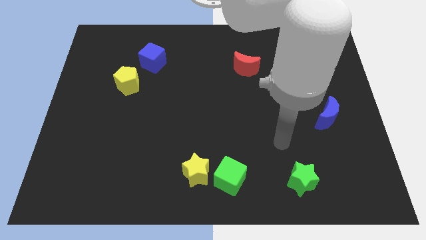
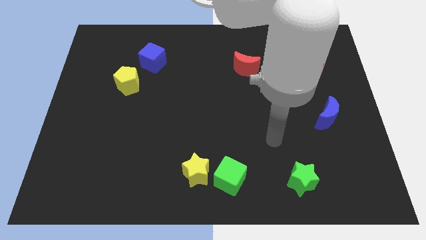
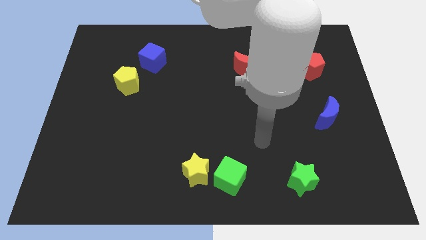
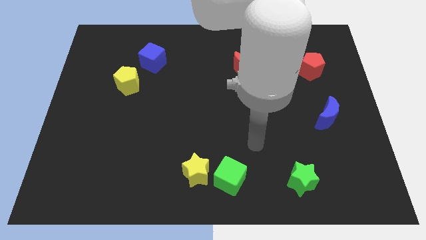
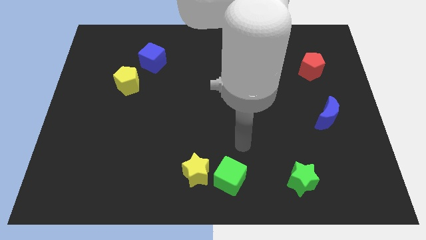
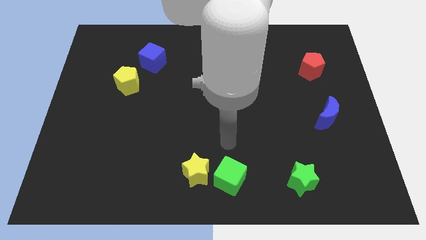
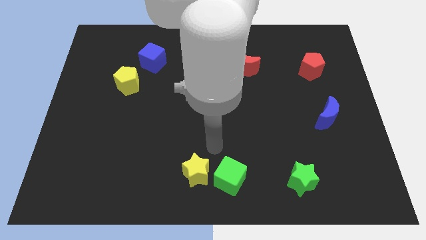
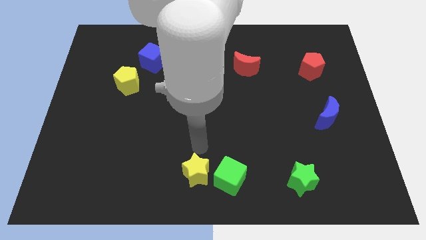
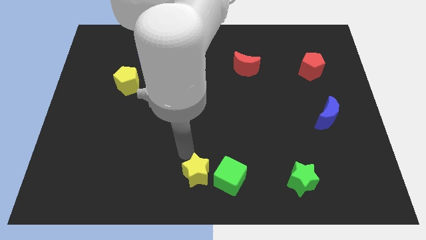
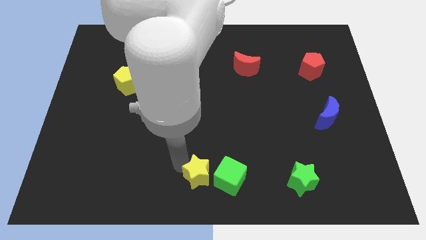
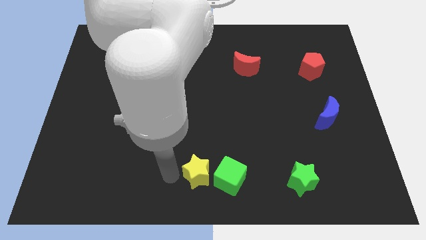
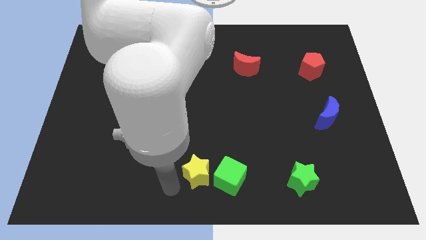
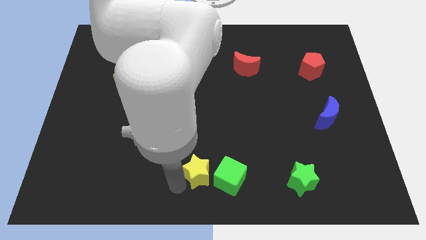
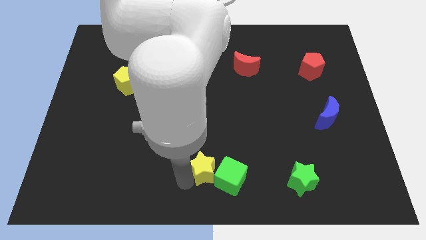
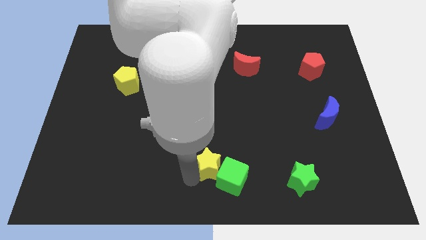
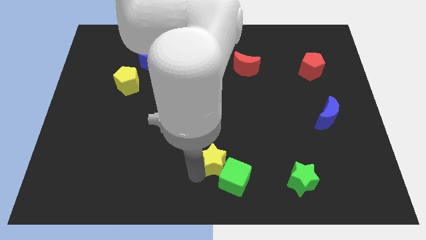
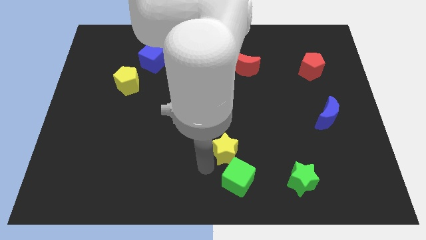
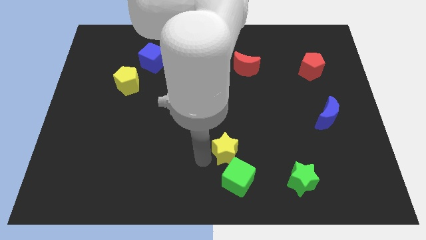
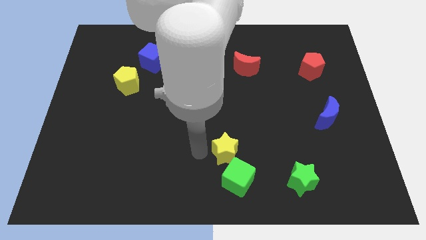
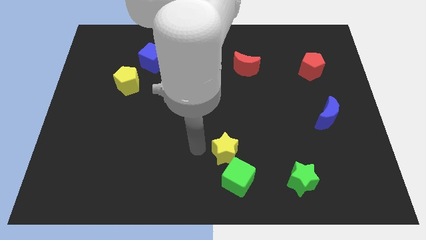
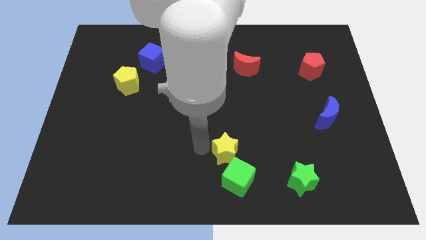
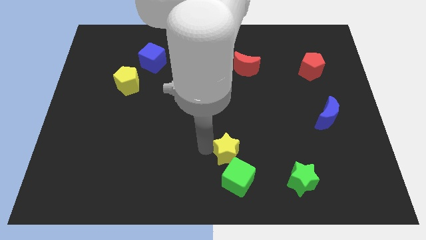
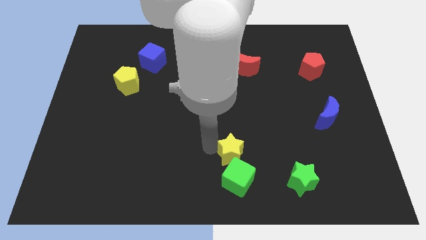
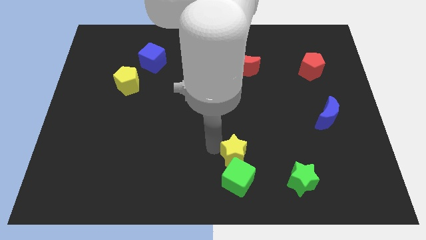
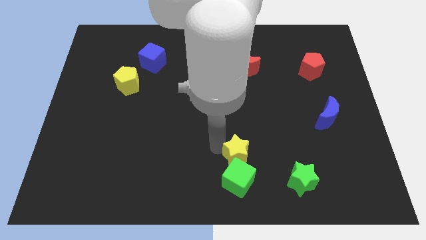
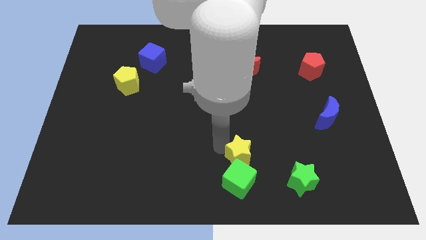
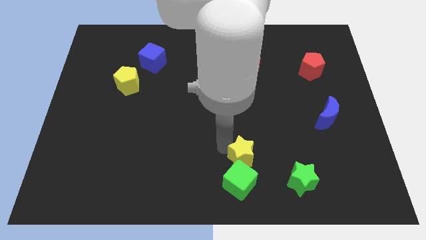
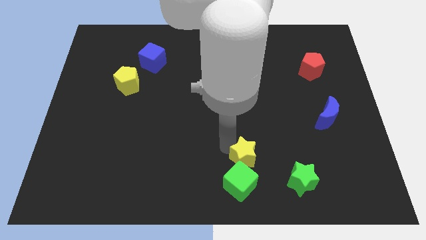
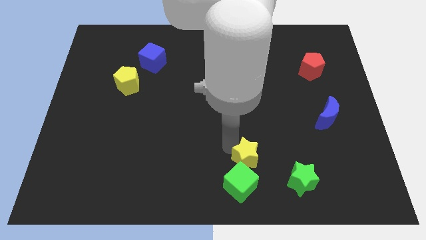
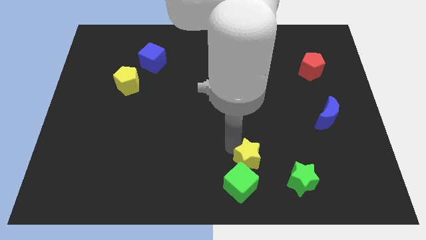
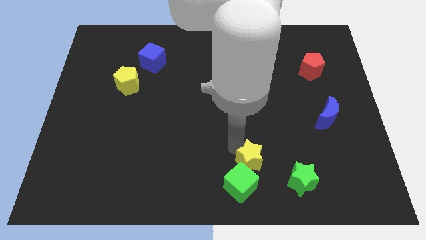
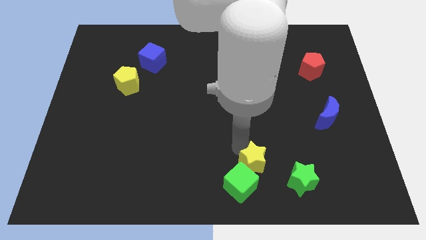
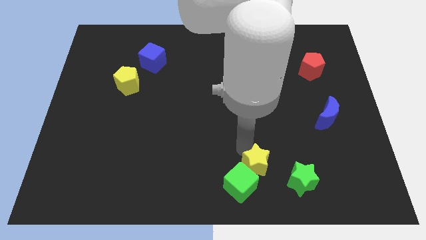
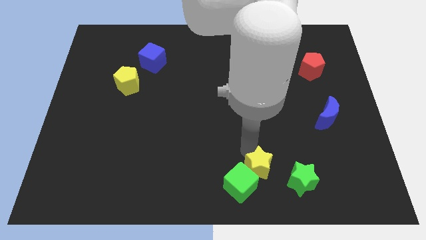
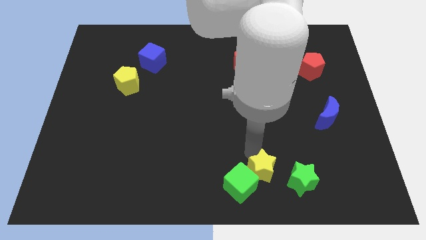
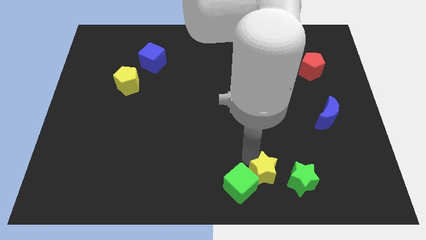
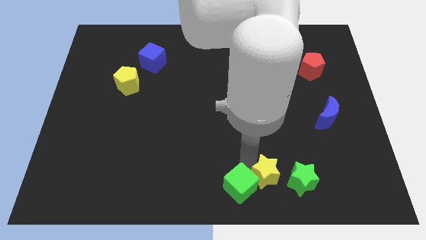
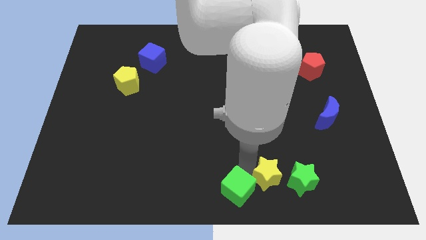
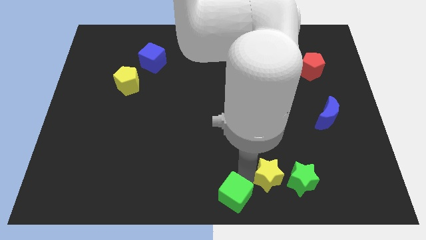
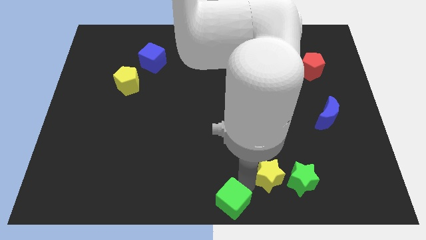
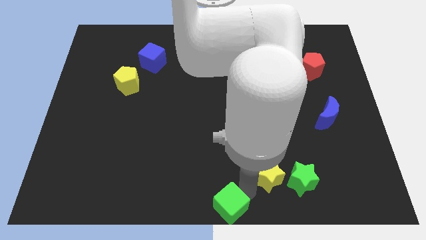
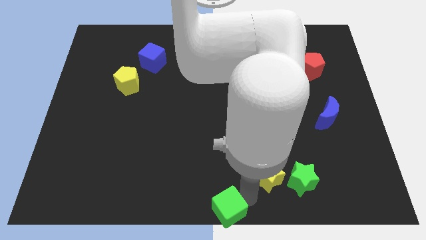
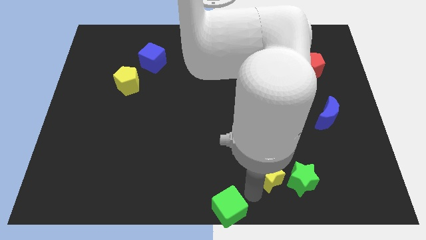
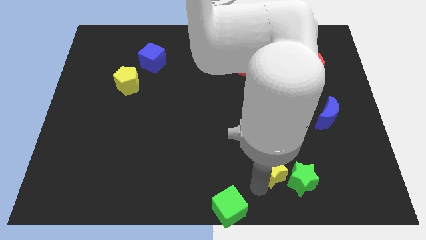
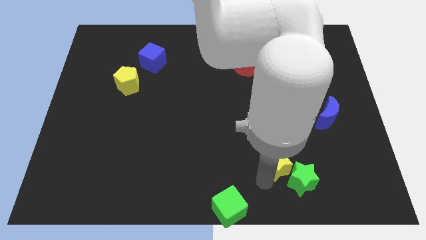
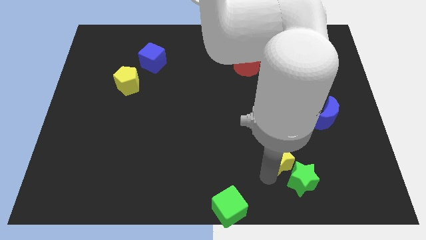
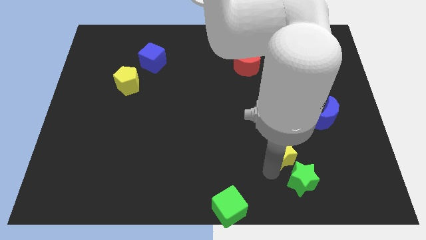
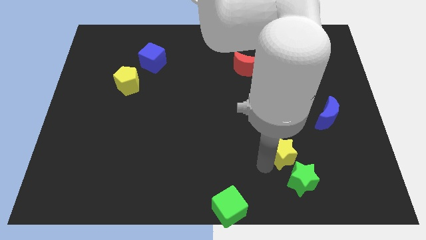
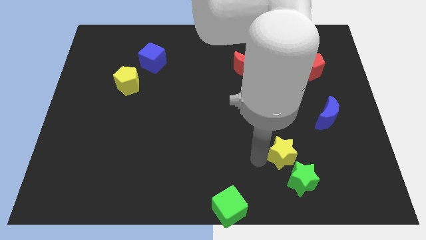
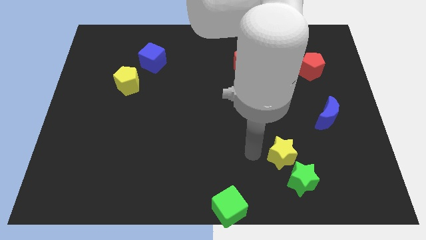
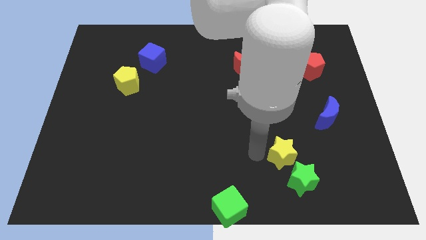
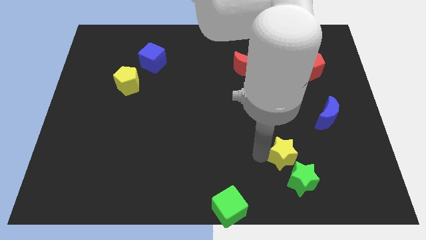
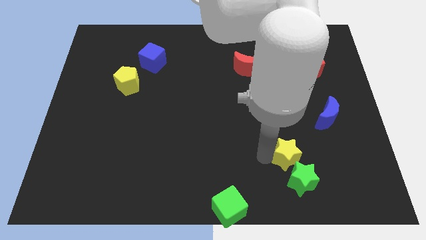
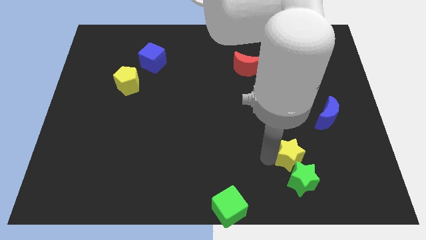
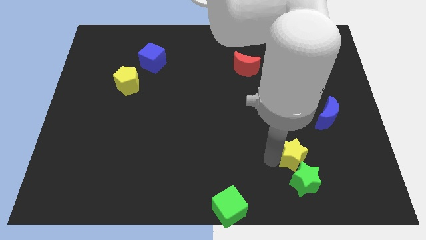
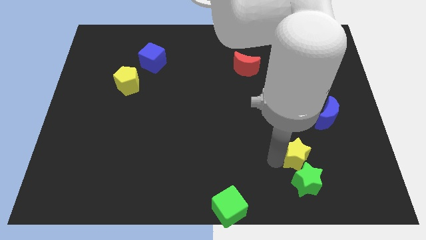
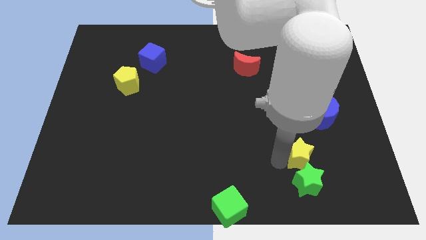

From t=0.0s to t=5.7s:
push the yellow star to the top right of the green star

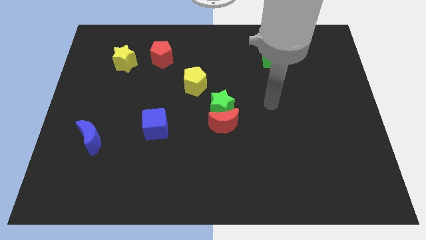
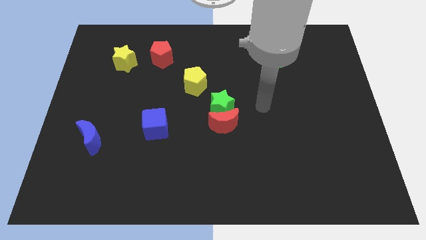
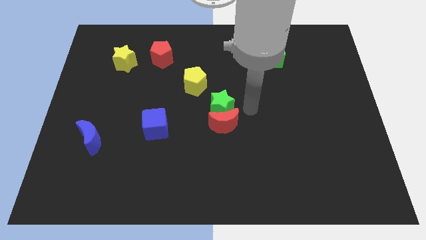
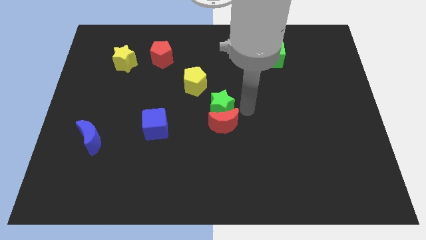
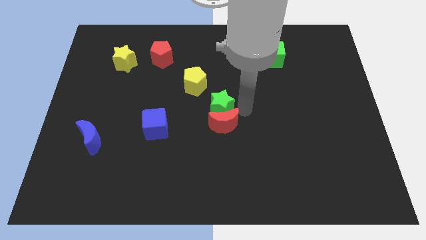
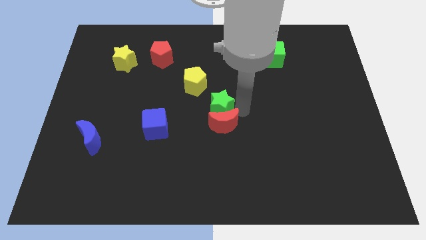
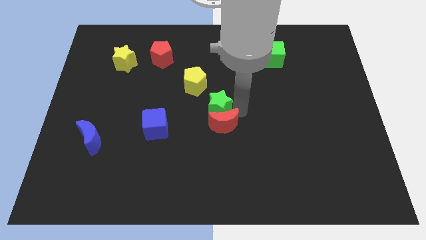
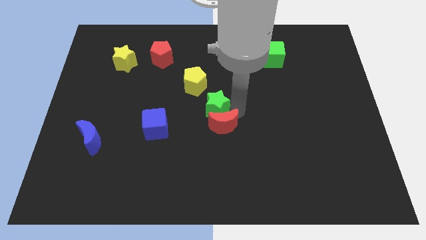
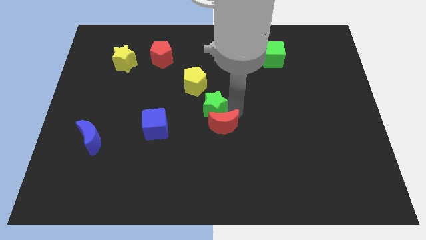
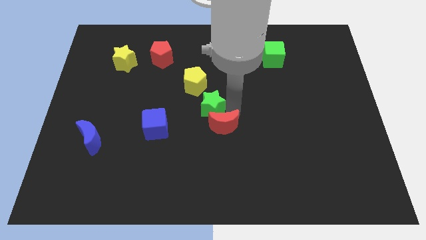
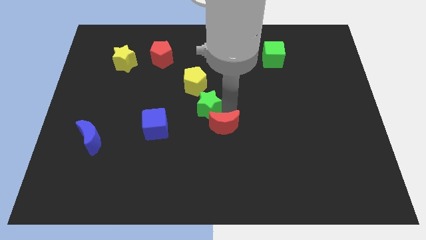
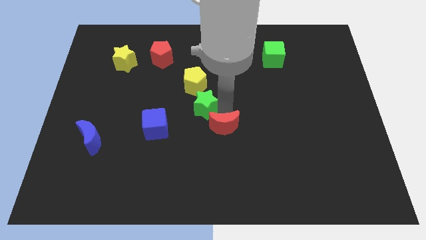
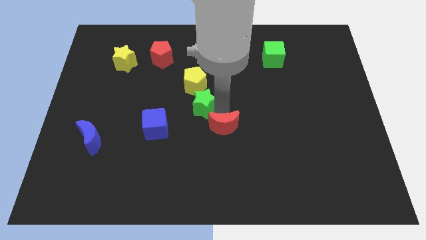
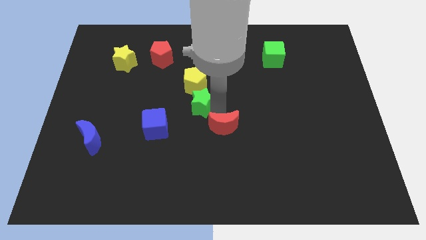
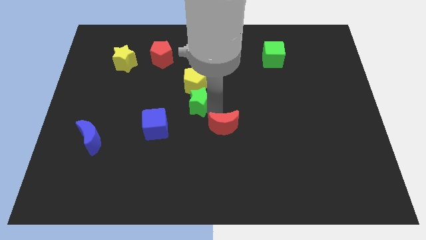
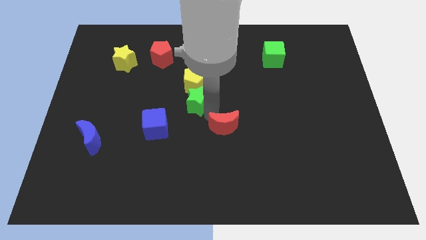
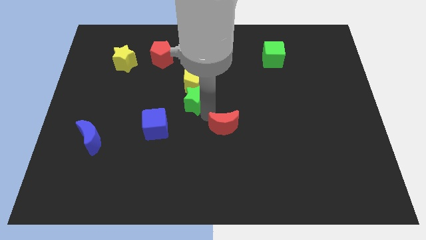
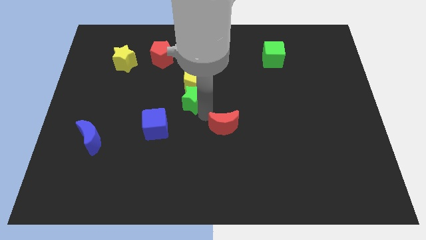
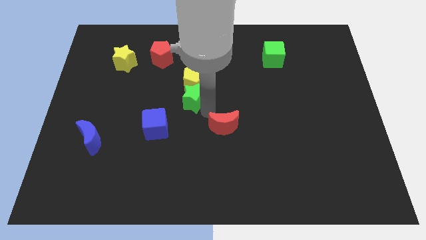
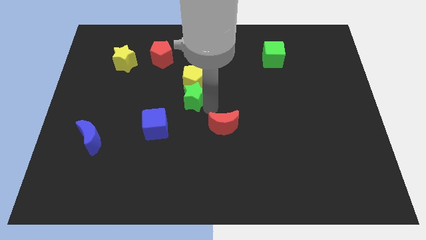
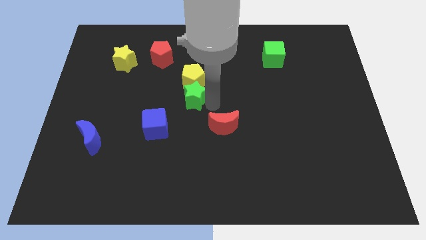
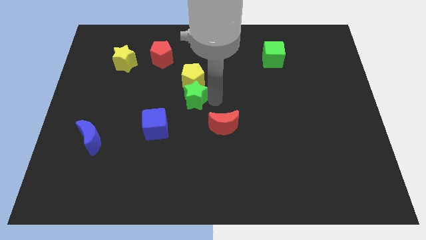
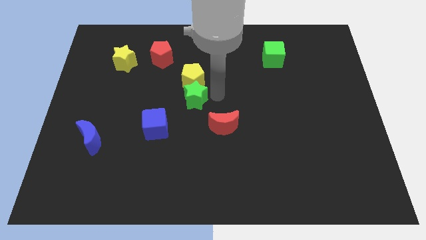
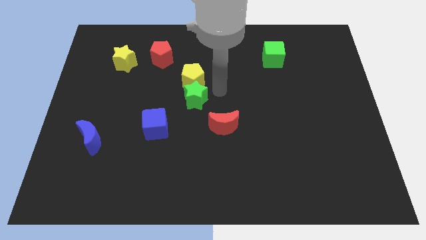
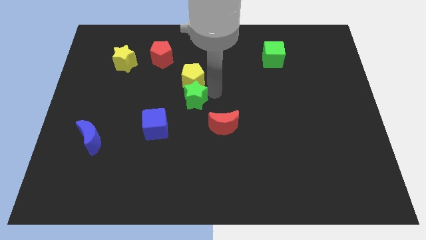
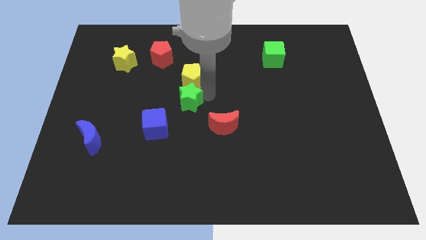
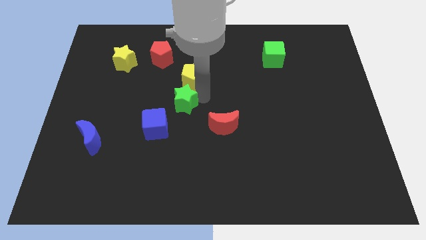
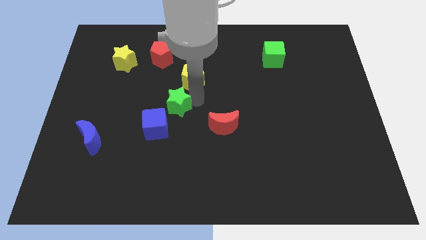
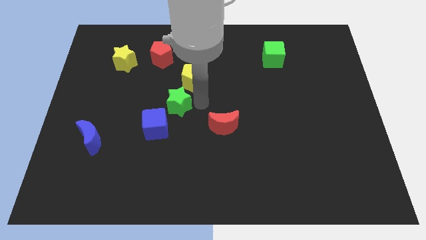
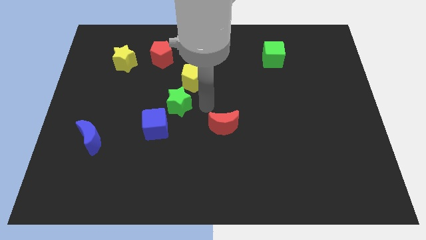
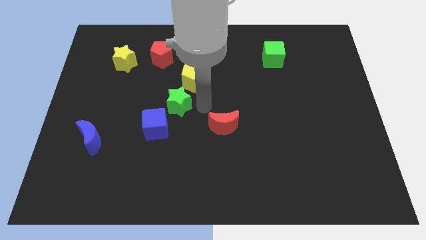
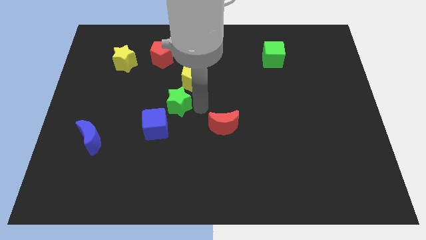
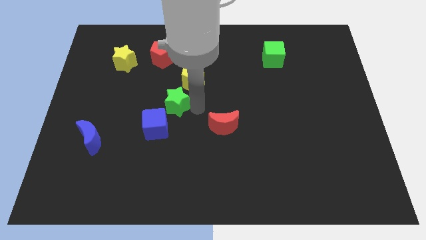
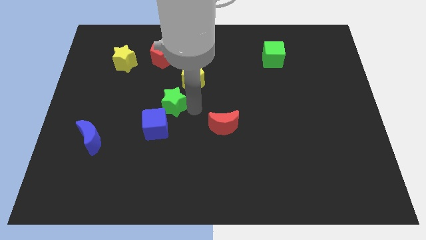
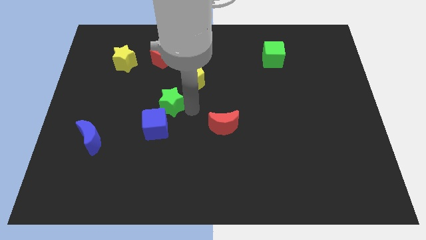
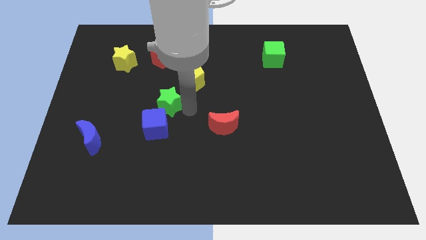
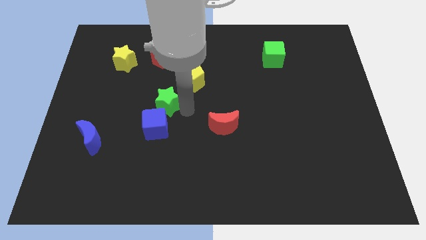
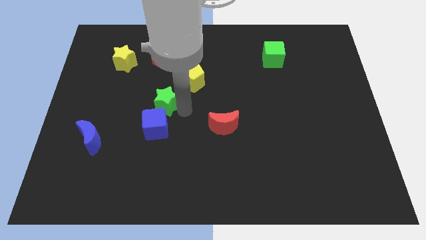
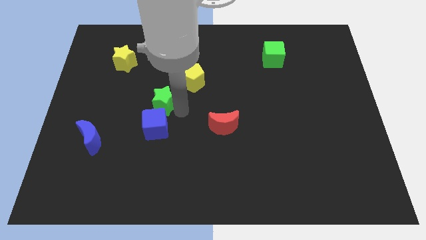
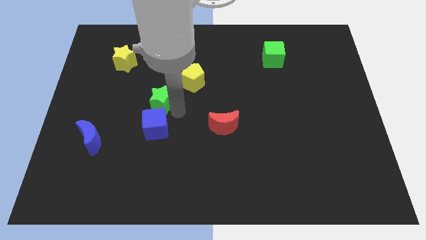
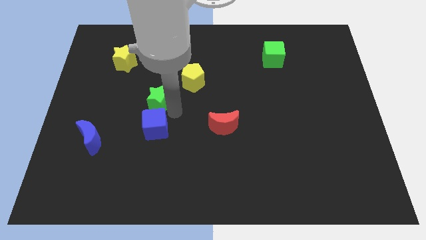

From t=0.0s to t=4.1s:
move the green star to the top left of the blue cube
